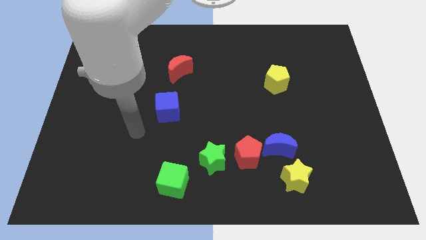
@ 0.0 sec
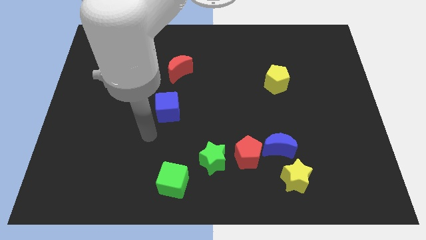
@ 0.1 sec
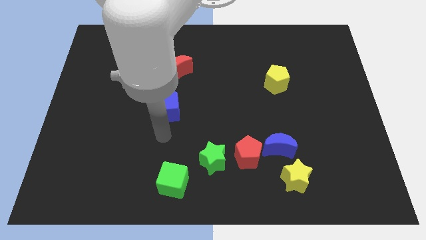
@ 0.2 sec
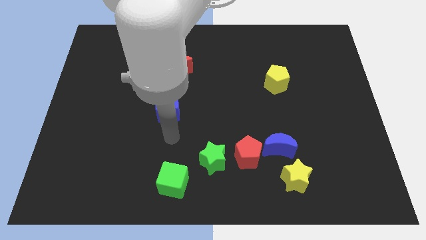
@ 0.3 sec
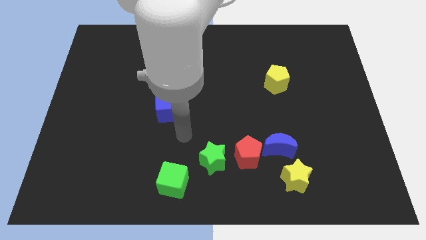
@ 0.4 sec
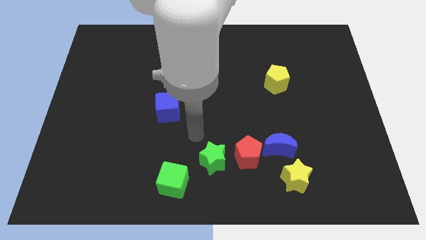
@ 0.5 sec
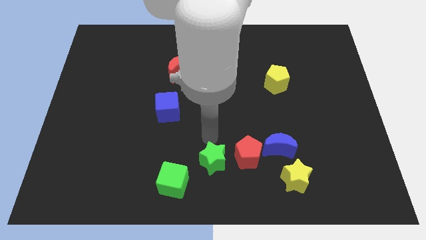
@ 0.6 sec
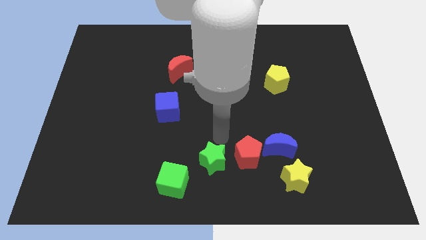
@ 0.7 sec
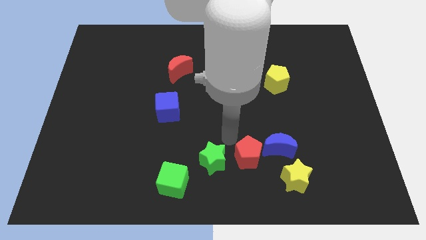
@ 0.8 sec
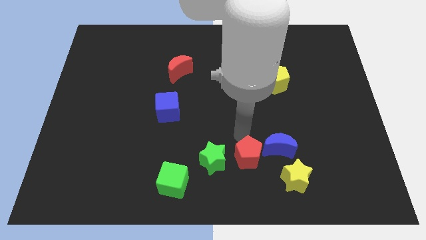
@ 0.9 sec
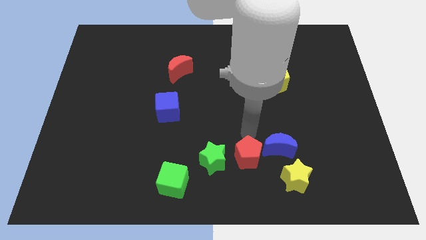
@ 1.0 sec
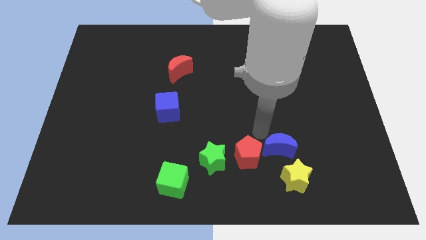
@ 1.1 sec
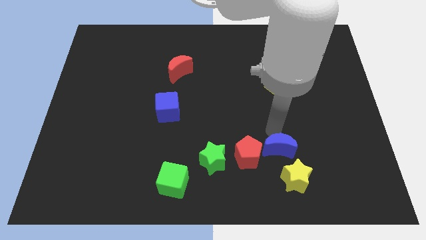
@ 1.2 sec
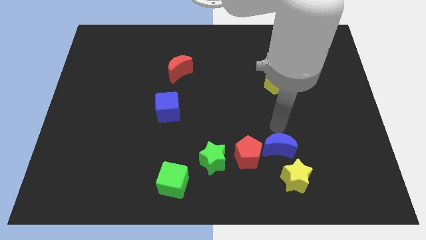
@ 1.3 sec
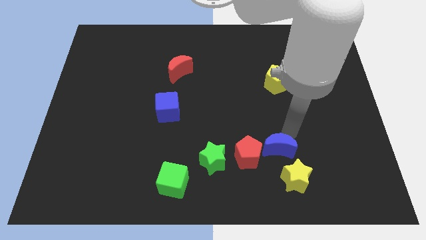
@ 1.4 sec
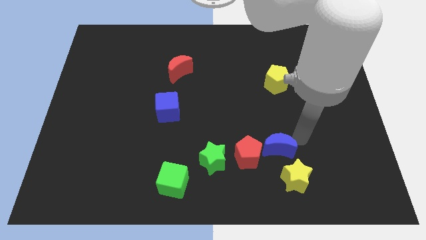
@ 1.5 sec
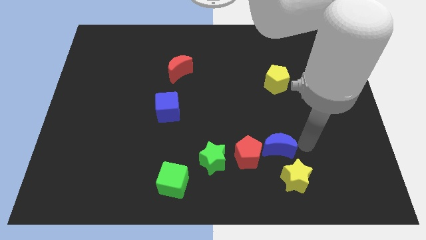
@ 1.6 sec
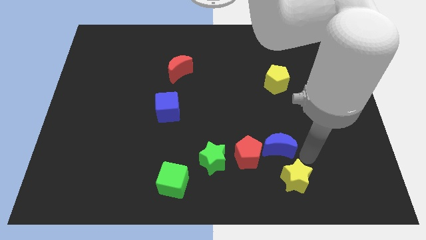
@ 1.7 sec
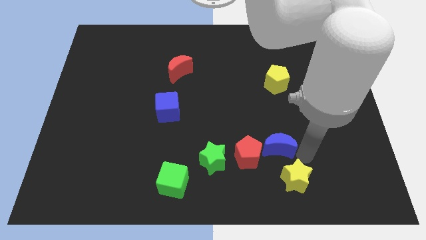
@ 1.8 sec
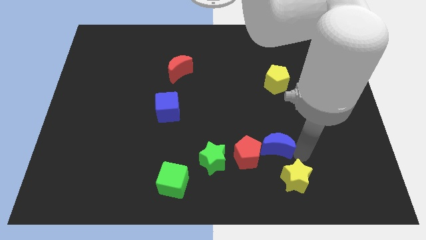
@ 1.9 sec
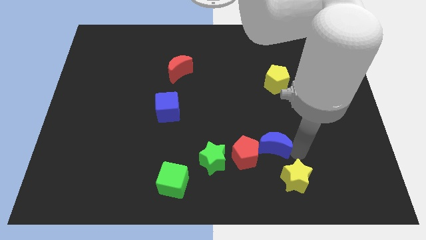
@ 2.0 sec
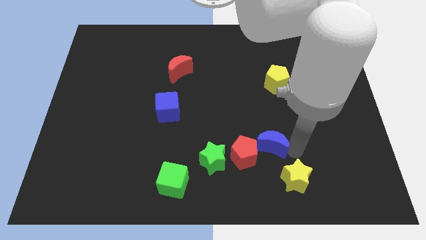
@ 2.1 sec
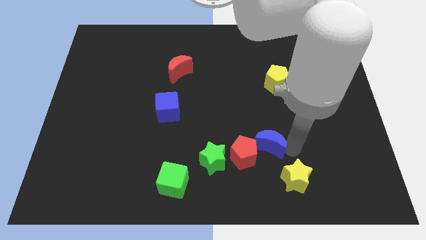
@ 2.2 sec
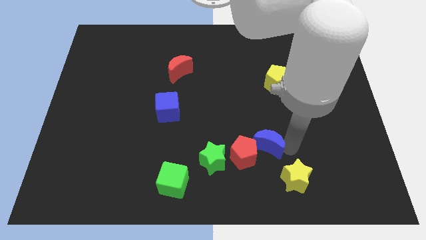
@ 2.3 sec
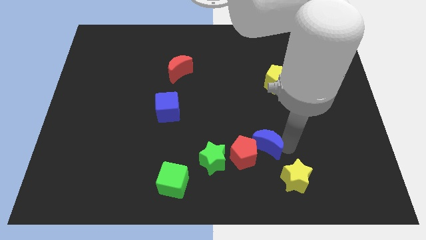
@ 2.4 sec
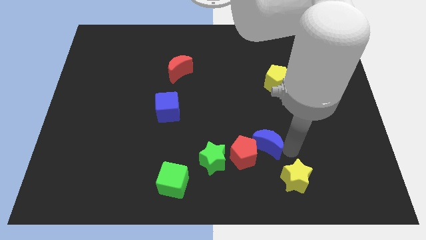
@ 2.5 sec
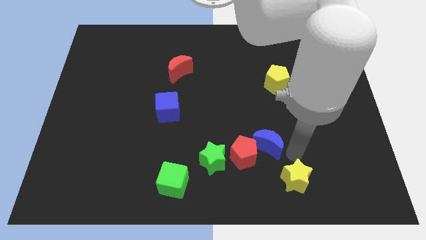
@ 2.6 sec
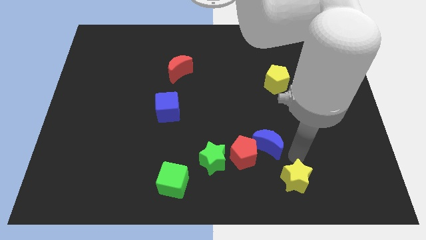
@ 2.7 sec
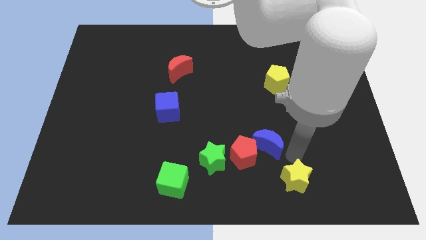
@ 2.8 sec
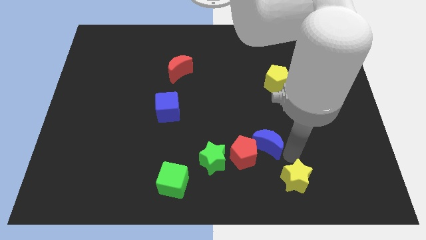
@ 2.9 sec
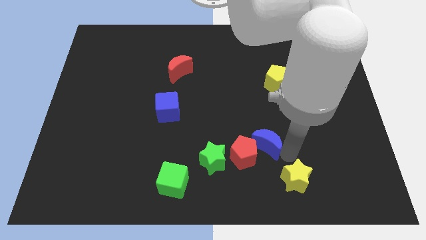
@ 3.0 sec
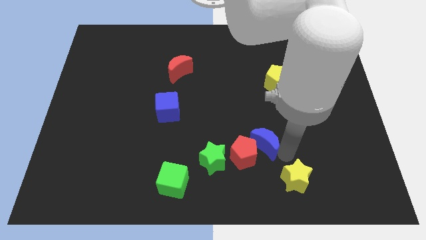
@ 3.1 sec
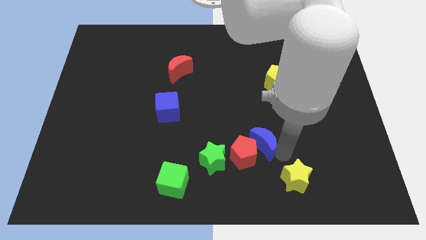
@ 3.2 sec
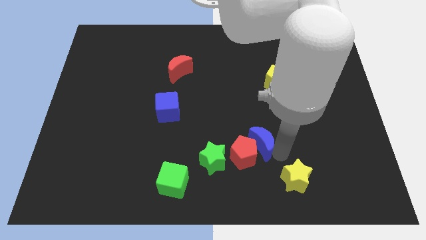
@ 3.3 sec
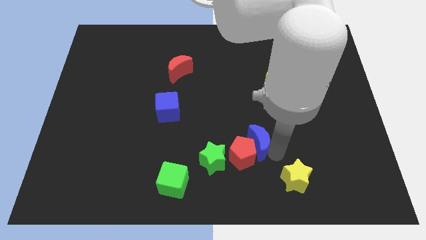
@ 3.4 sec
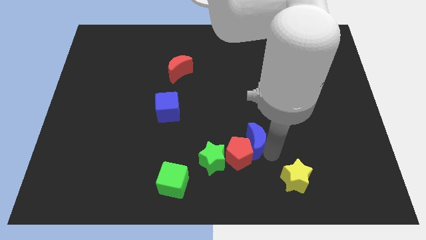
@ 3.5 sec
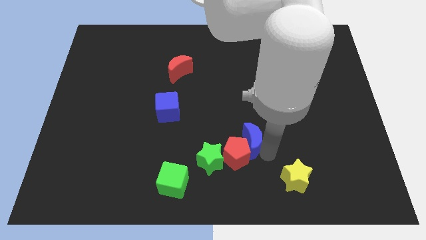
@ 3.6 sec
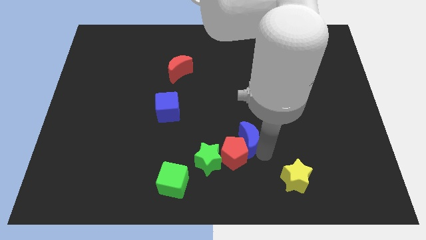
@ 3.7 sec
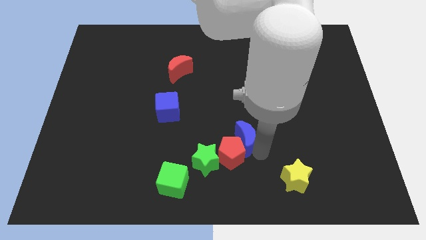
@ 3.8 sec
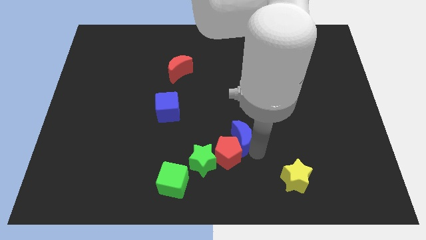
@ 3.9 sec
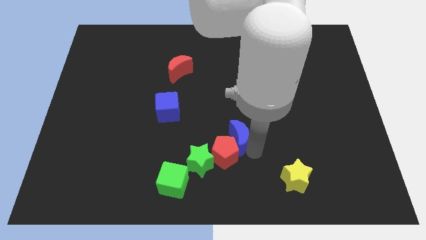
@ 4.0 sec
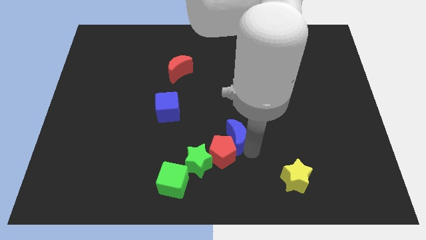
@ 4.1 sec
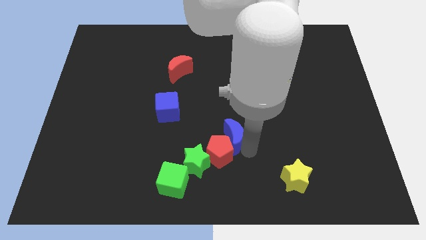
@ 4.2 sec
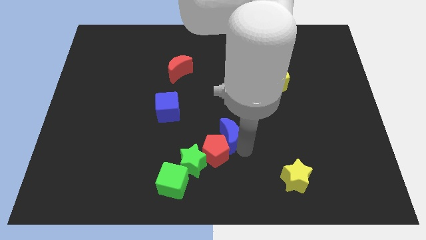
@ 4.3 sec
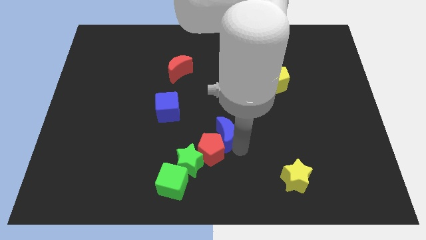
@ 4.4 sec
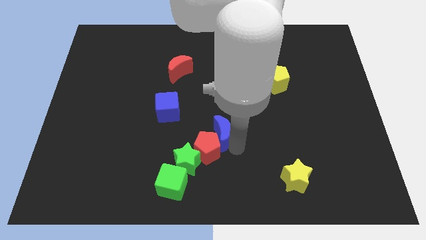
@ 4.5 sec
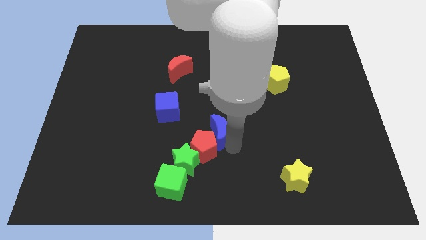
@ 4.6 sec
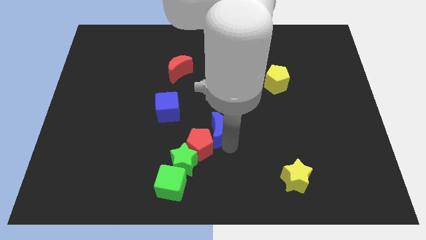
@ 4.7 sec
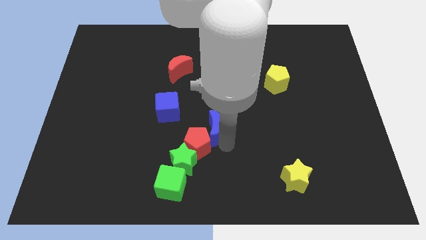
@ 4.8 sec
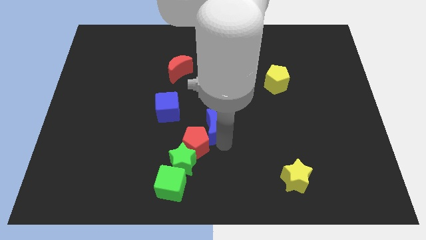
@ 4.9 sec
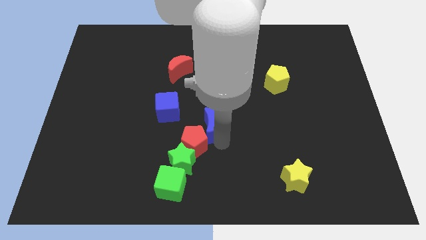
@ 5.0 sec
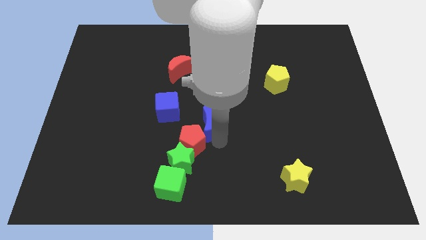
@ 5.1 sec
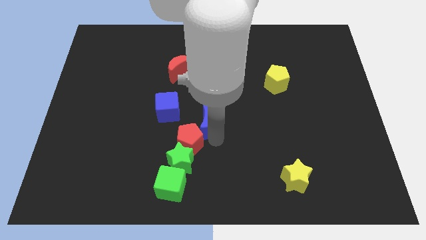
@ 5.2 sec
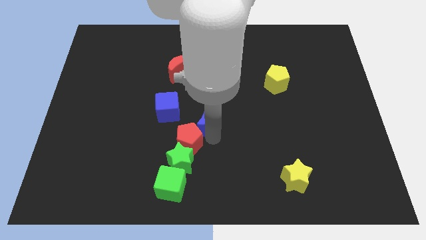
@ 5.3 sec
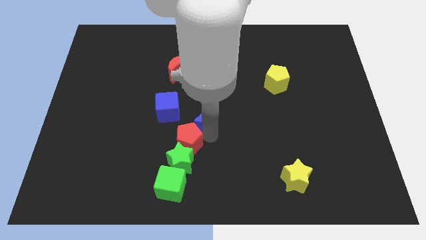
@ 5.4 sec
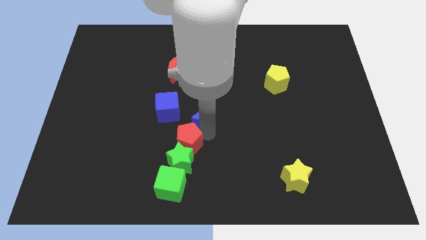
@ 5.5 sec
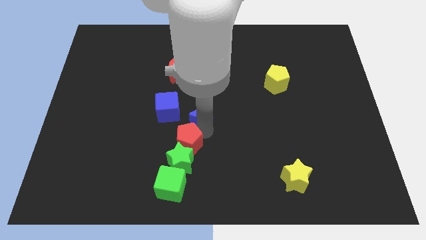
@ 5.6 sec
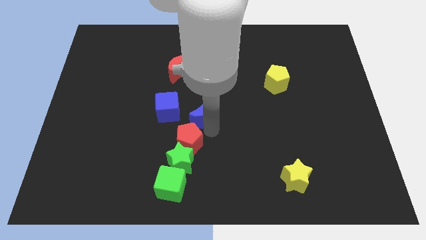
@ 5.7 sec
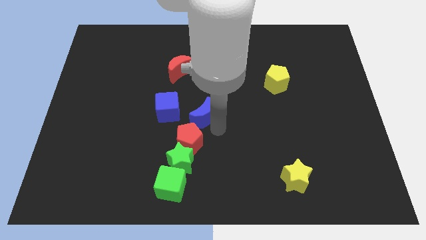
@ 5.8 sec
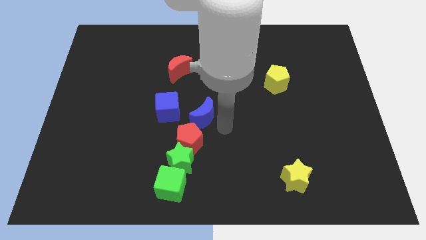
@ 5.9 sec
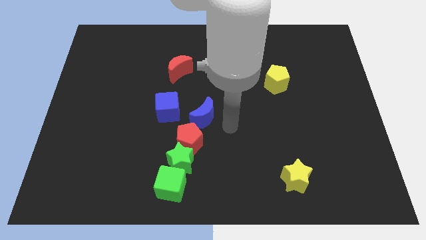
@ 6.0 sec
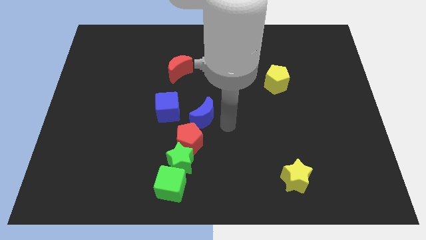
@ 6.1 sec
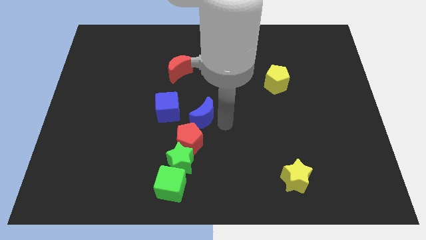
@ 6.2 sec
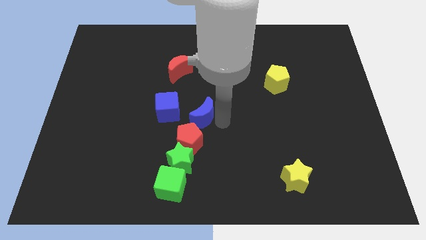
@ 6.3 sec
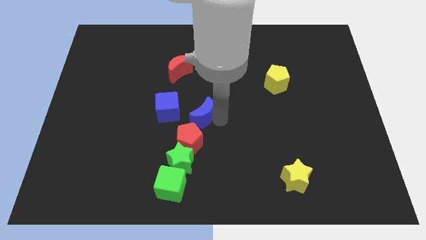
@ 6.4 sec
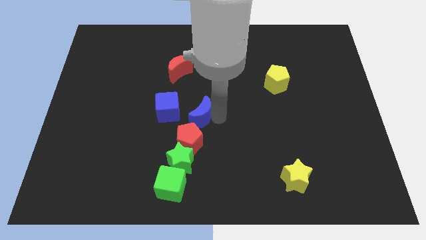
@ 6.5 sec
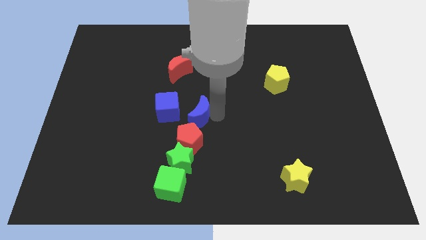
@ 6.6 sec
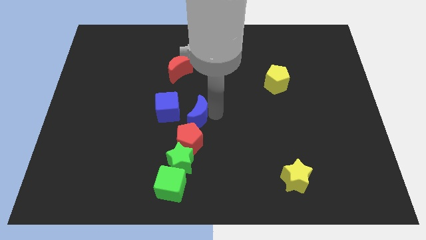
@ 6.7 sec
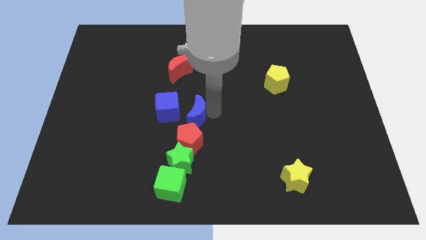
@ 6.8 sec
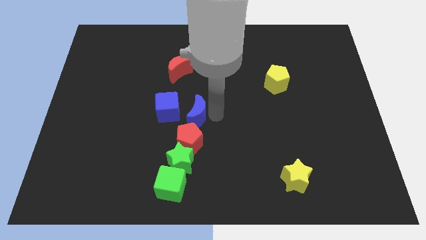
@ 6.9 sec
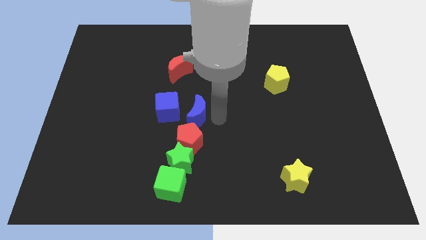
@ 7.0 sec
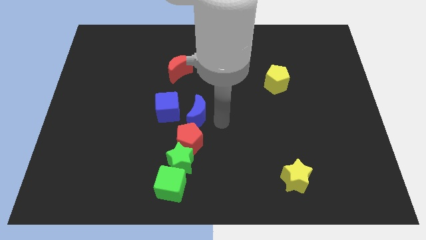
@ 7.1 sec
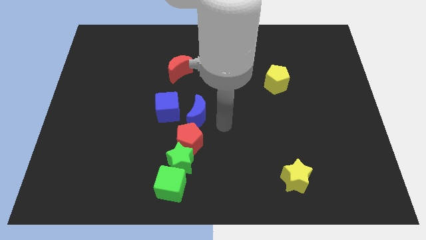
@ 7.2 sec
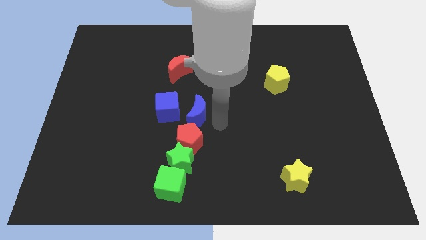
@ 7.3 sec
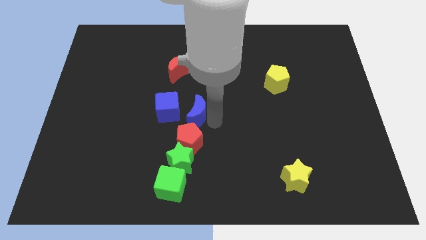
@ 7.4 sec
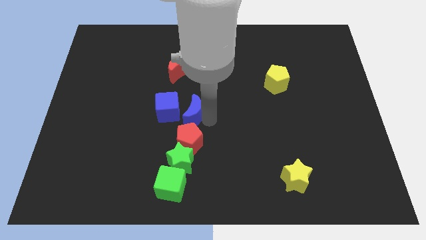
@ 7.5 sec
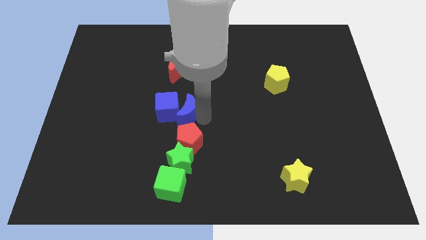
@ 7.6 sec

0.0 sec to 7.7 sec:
slide the blue moon to the blue cube
